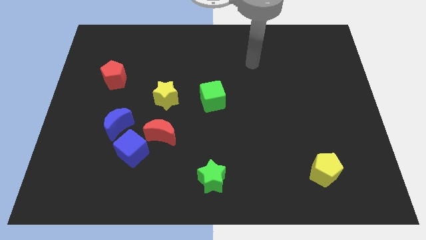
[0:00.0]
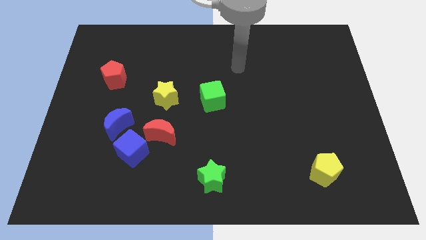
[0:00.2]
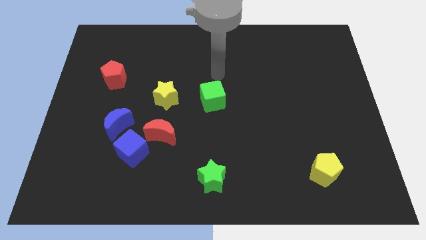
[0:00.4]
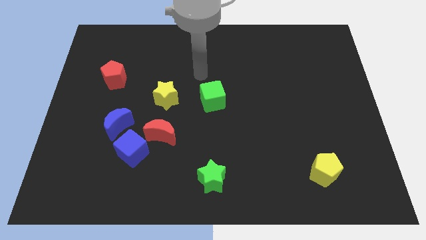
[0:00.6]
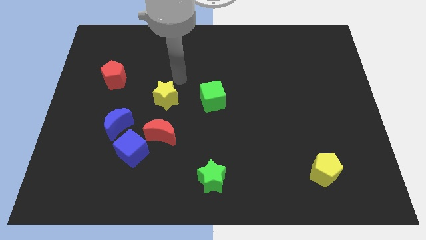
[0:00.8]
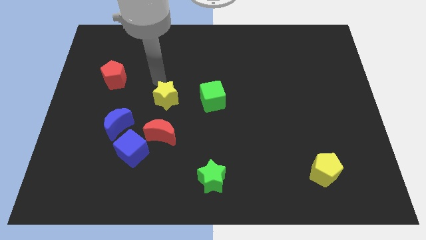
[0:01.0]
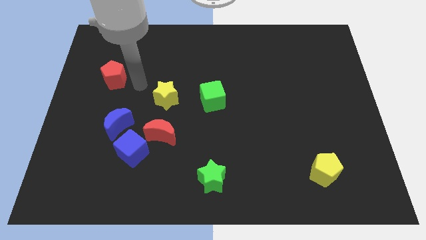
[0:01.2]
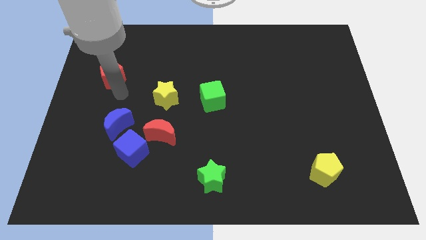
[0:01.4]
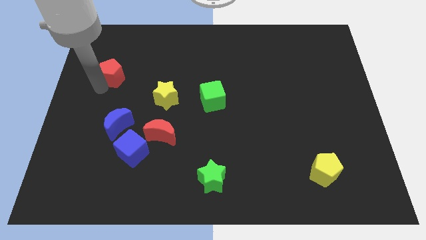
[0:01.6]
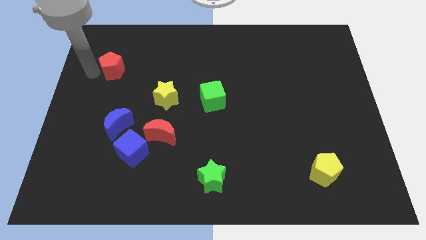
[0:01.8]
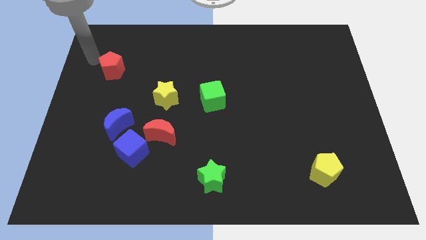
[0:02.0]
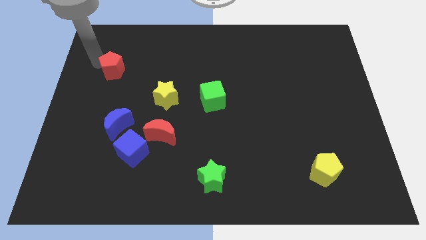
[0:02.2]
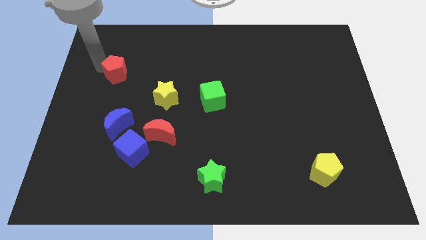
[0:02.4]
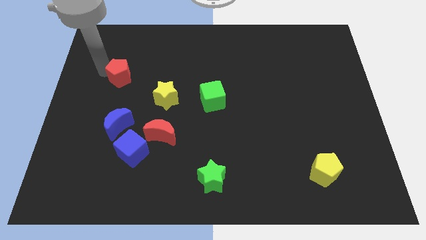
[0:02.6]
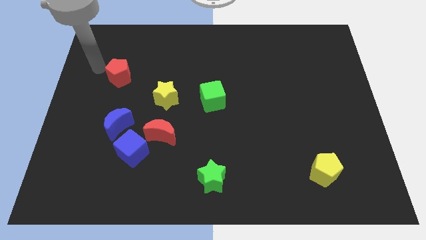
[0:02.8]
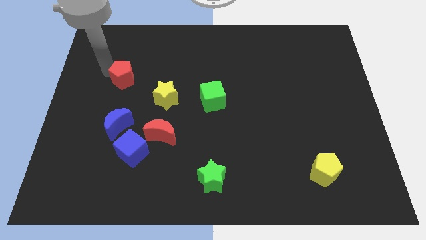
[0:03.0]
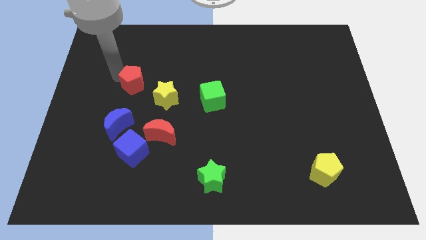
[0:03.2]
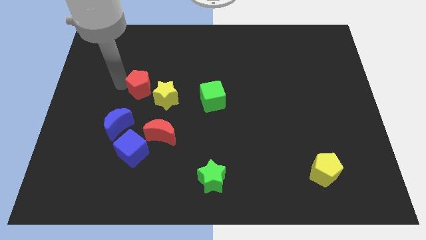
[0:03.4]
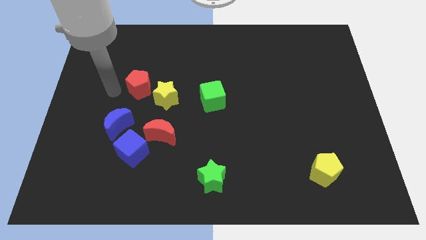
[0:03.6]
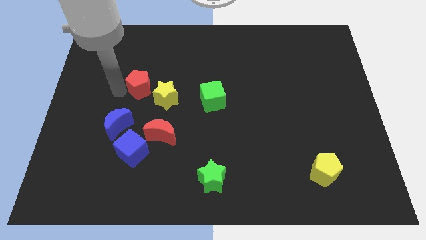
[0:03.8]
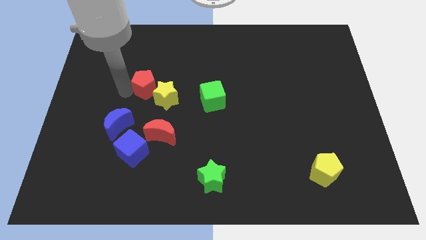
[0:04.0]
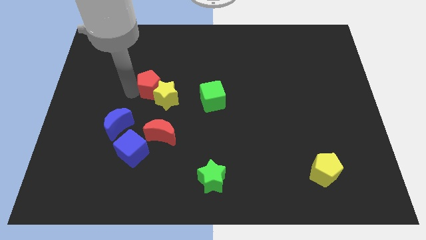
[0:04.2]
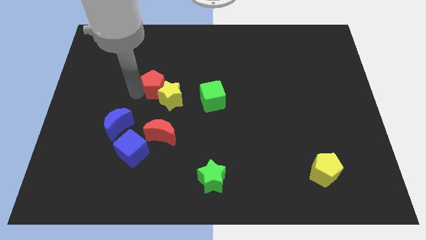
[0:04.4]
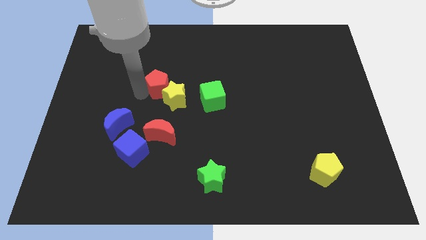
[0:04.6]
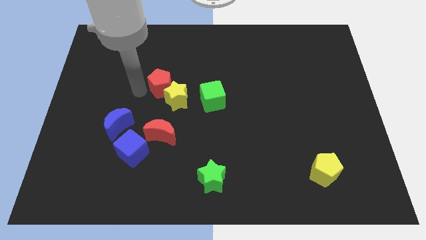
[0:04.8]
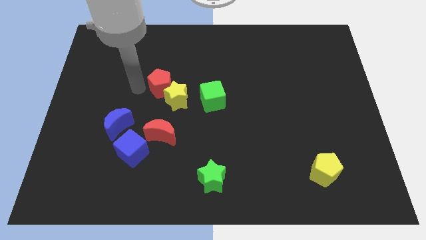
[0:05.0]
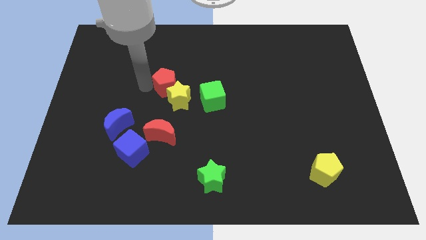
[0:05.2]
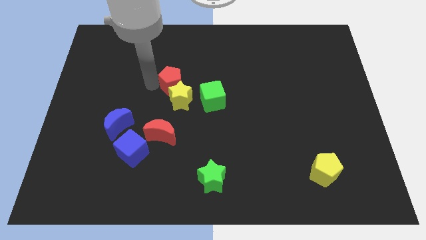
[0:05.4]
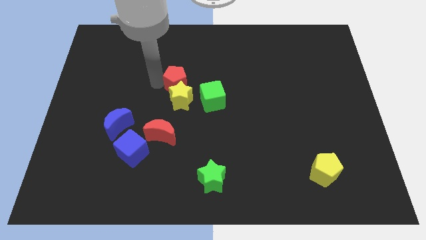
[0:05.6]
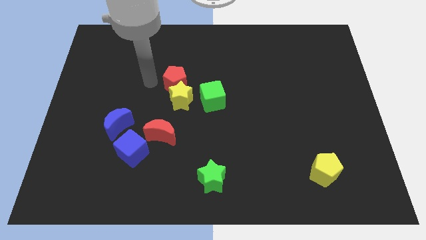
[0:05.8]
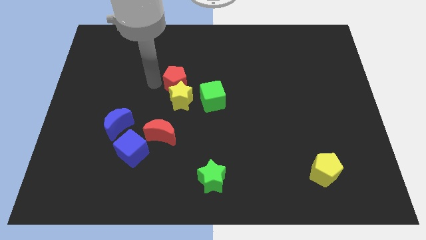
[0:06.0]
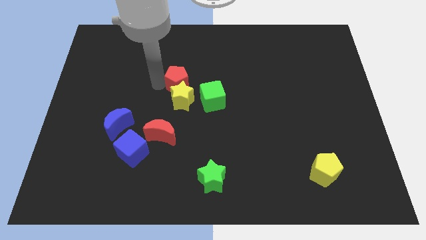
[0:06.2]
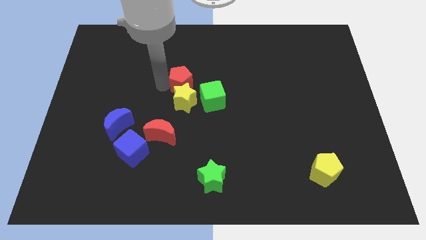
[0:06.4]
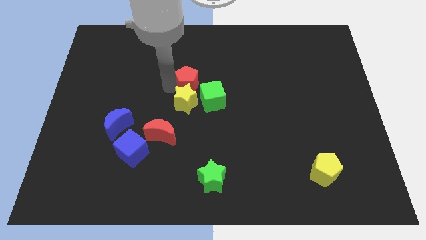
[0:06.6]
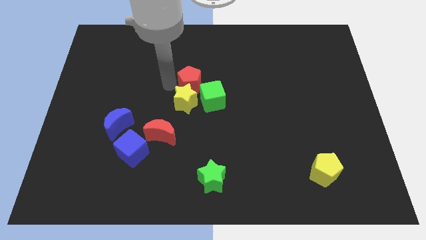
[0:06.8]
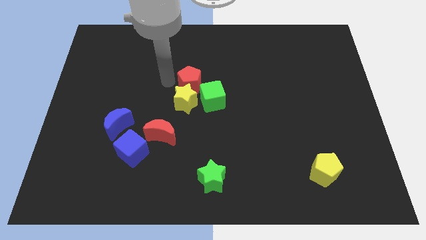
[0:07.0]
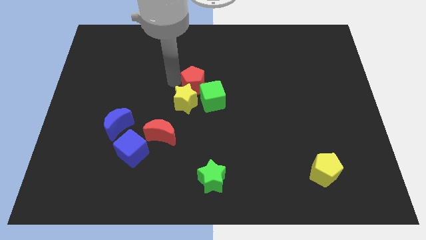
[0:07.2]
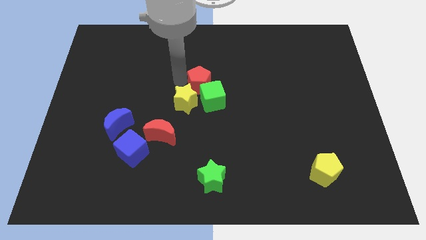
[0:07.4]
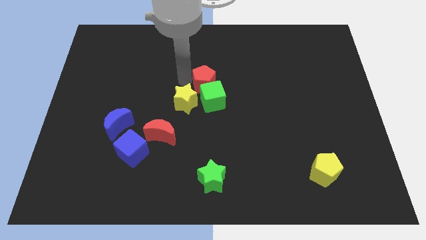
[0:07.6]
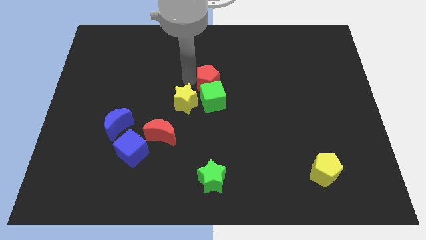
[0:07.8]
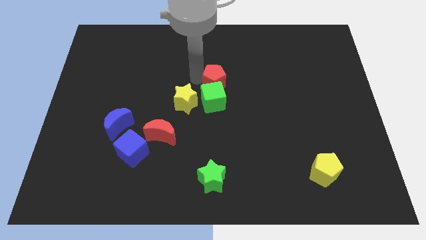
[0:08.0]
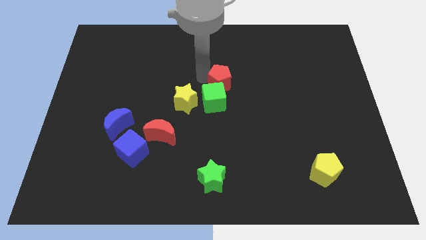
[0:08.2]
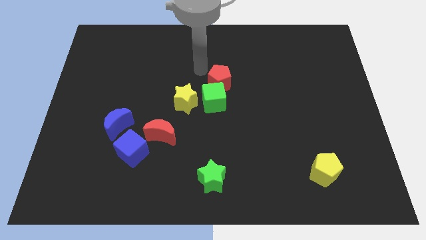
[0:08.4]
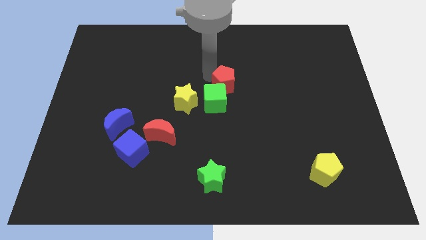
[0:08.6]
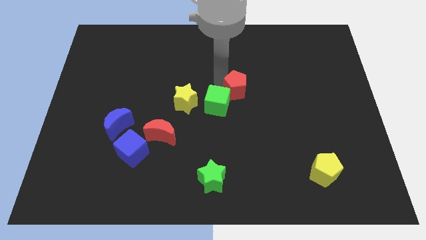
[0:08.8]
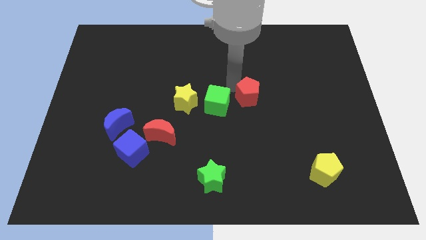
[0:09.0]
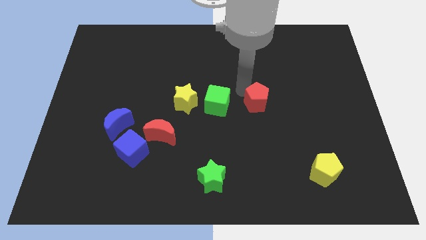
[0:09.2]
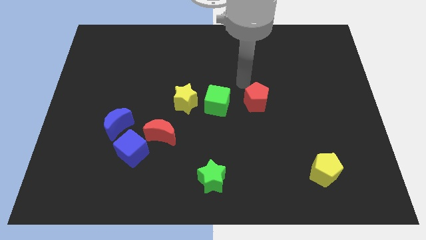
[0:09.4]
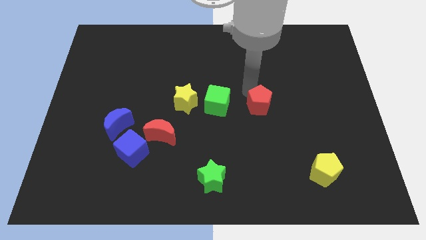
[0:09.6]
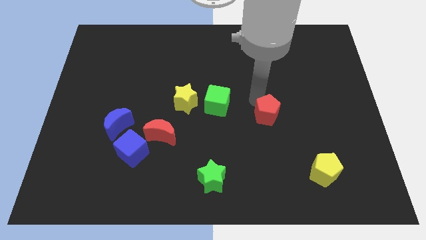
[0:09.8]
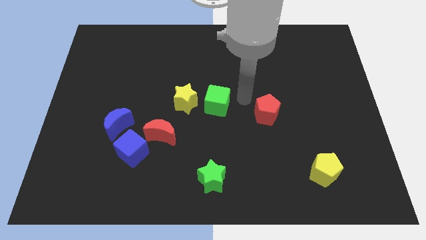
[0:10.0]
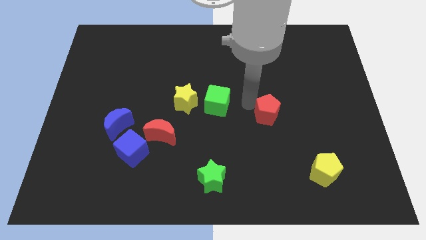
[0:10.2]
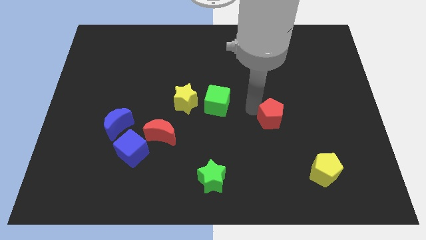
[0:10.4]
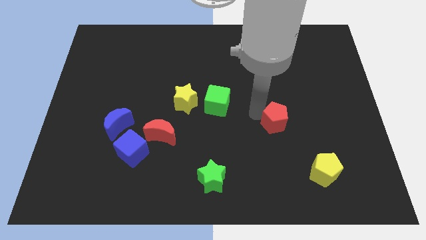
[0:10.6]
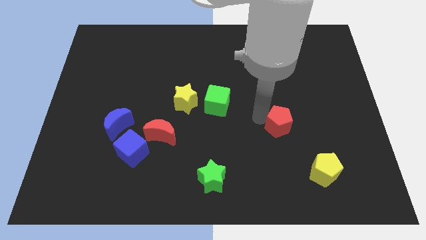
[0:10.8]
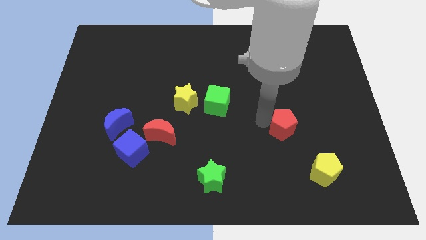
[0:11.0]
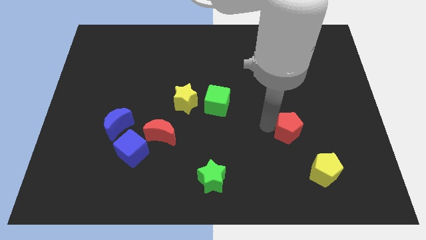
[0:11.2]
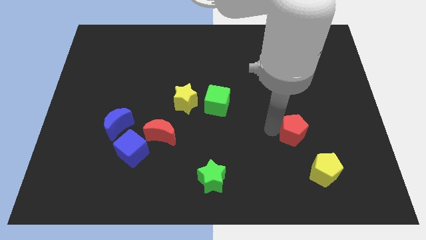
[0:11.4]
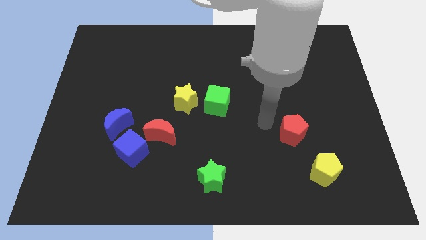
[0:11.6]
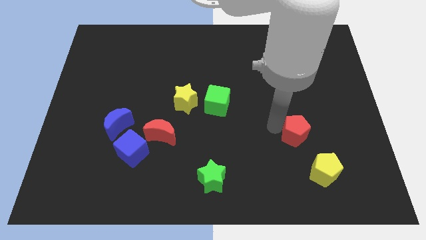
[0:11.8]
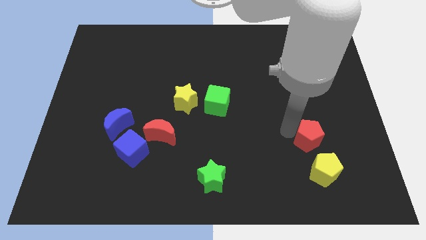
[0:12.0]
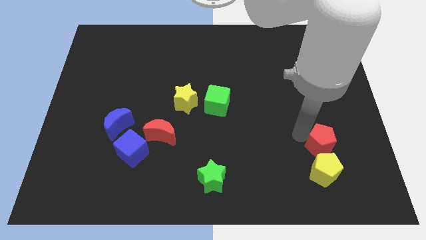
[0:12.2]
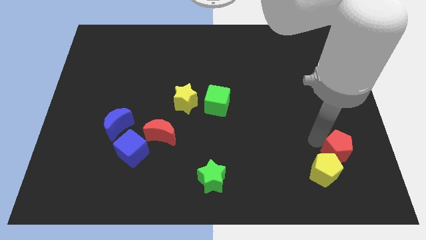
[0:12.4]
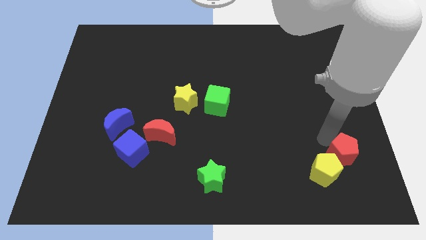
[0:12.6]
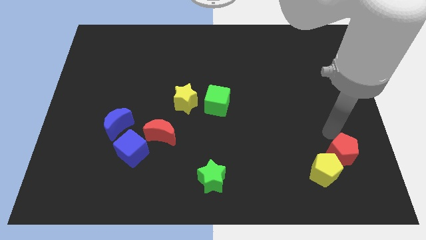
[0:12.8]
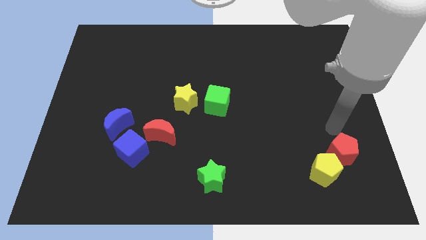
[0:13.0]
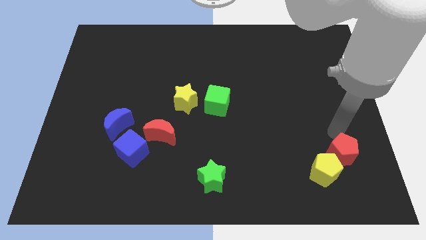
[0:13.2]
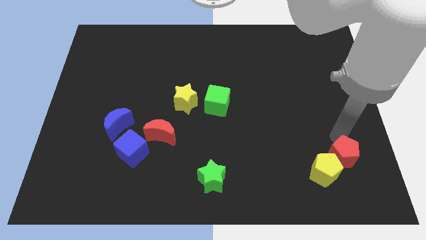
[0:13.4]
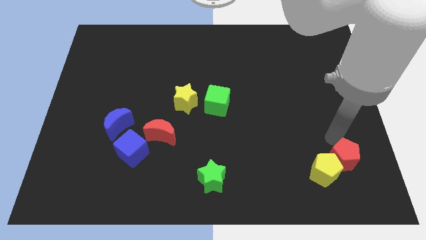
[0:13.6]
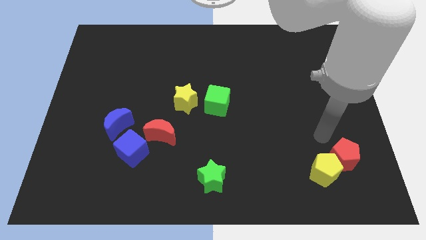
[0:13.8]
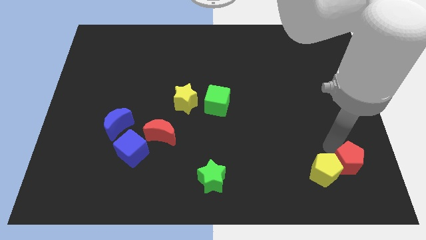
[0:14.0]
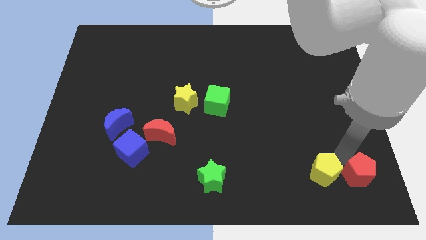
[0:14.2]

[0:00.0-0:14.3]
move the red pentagon to the bottom right
